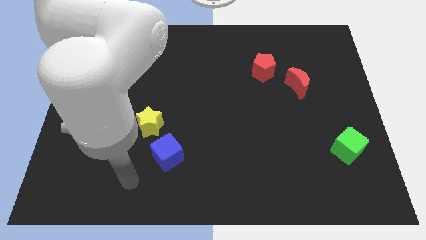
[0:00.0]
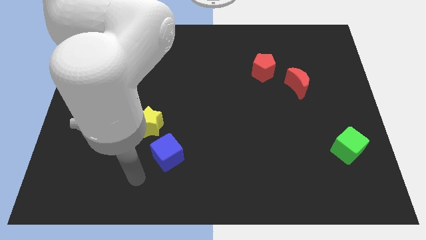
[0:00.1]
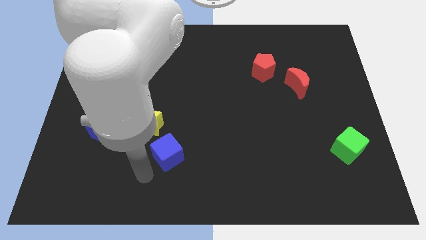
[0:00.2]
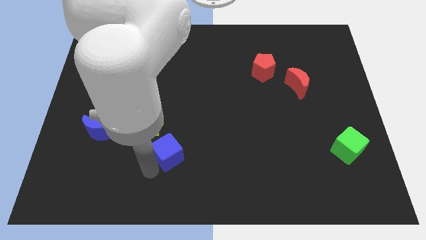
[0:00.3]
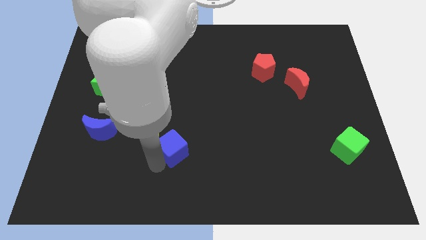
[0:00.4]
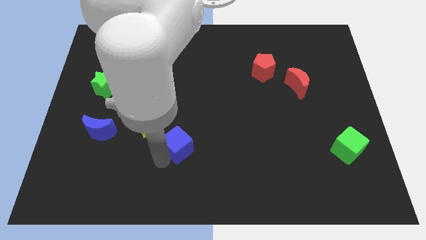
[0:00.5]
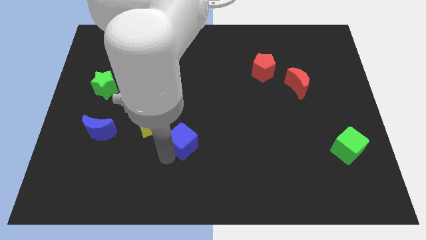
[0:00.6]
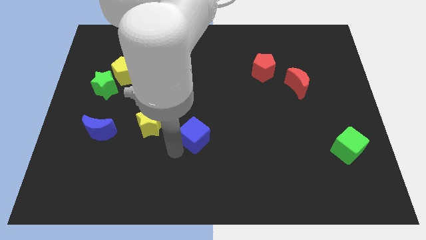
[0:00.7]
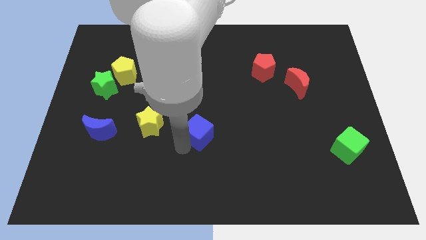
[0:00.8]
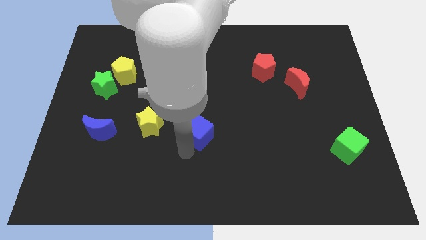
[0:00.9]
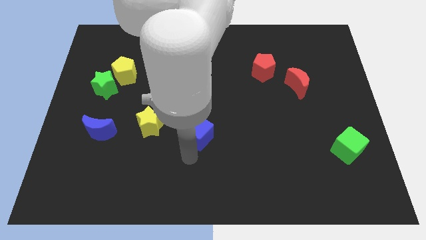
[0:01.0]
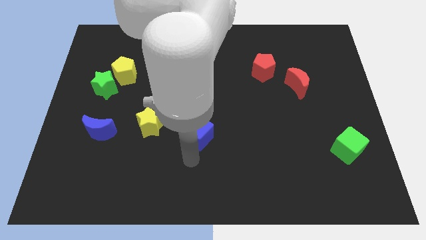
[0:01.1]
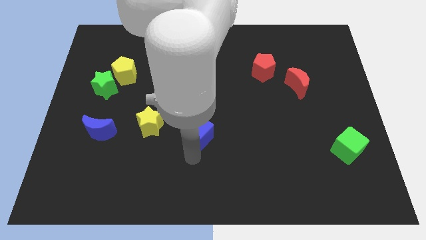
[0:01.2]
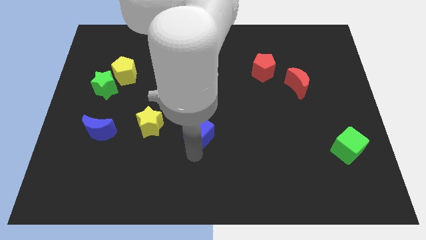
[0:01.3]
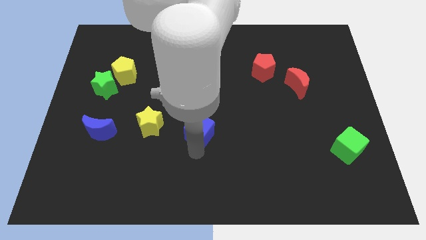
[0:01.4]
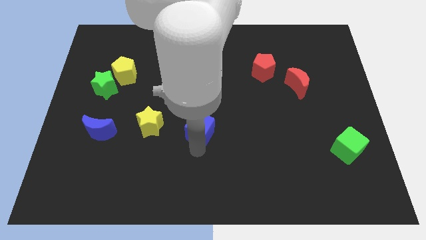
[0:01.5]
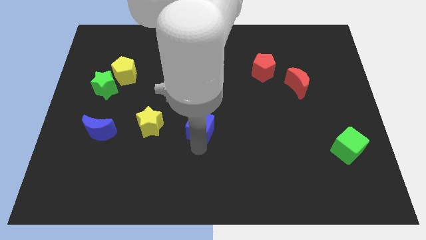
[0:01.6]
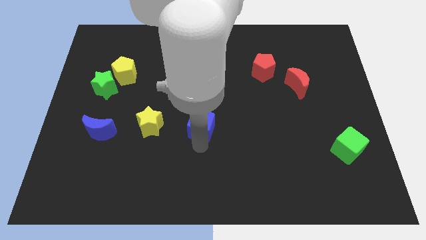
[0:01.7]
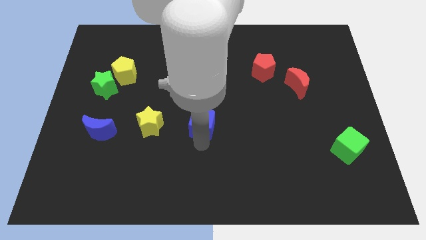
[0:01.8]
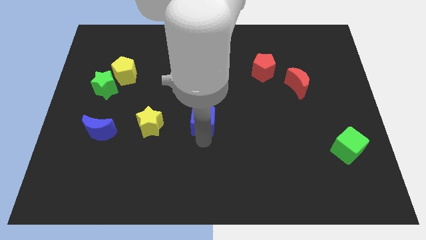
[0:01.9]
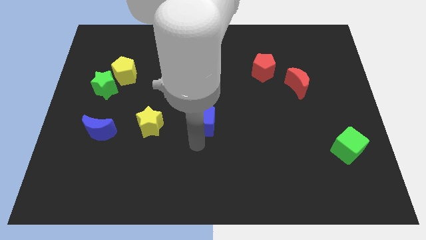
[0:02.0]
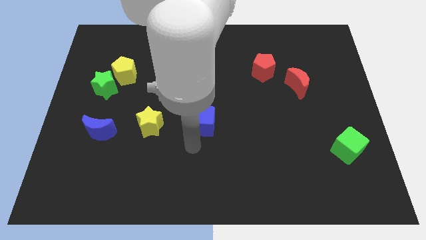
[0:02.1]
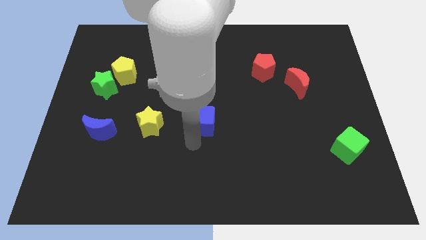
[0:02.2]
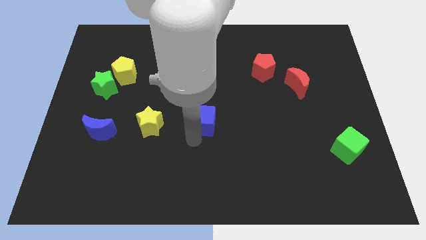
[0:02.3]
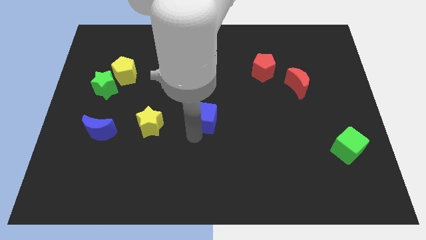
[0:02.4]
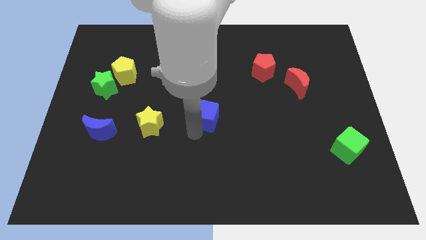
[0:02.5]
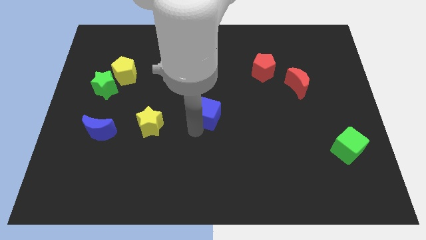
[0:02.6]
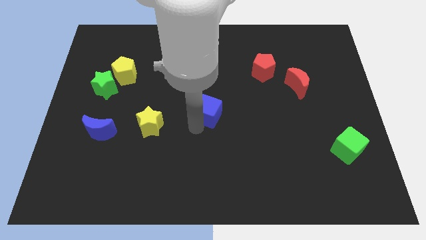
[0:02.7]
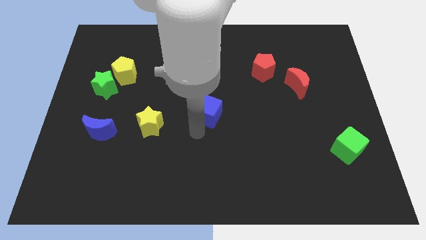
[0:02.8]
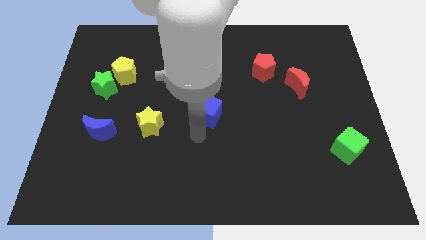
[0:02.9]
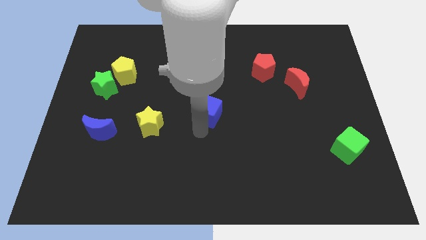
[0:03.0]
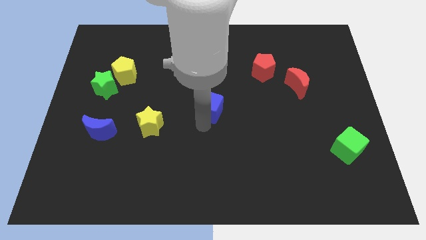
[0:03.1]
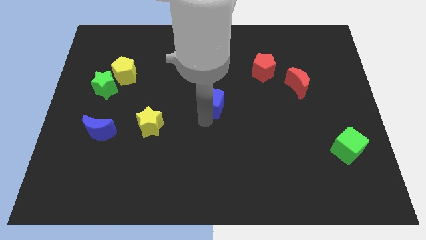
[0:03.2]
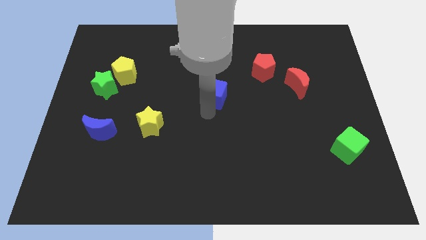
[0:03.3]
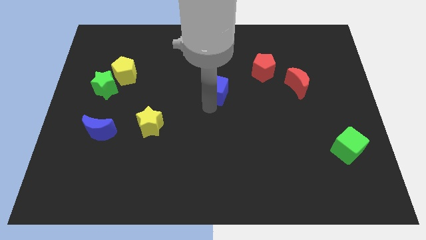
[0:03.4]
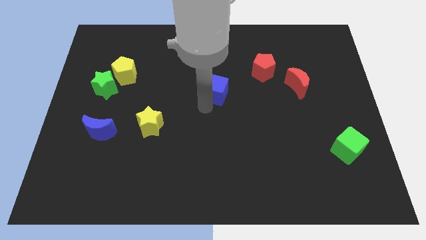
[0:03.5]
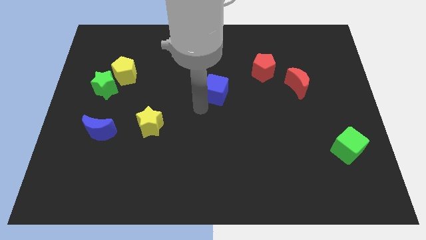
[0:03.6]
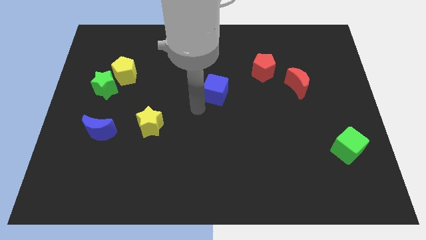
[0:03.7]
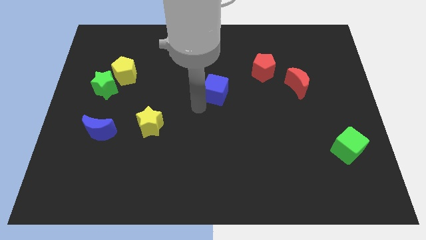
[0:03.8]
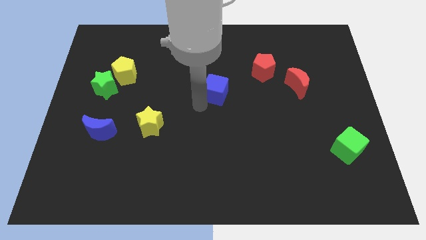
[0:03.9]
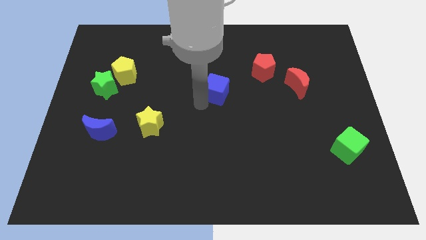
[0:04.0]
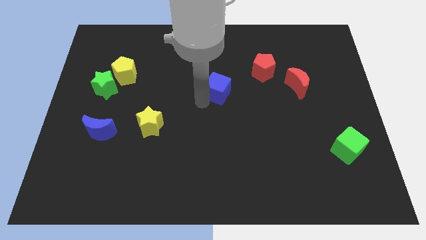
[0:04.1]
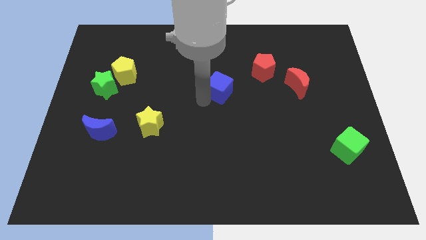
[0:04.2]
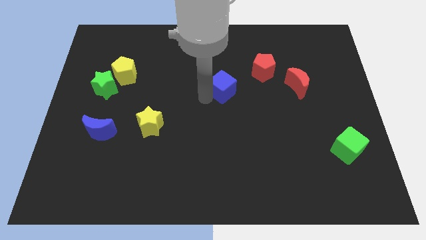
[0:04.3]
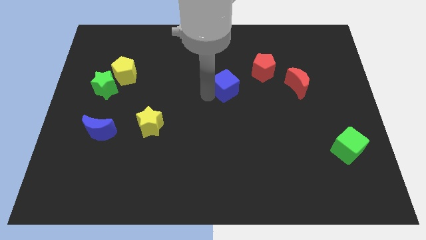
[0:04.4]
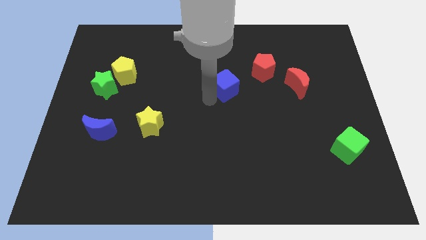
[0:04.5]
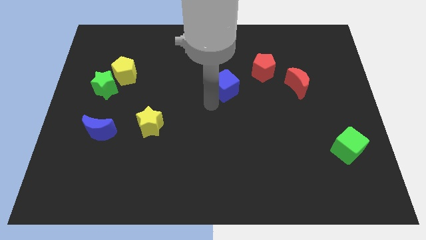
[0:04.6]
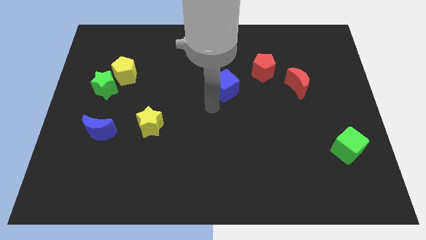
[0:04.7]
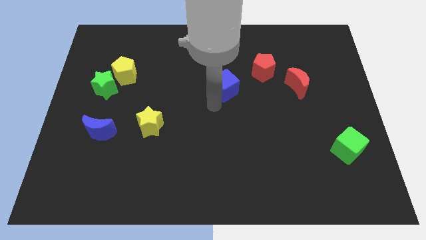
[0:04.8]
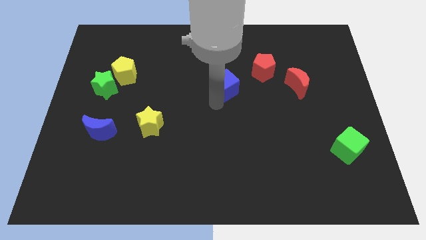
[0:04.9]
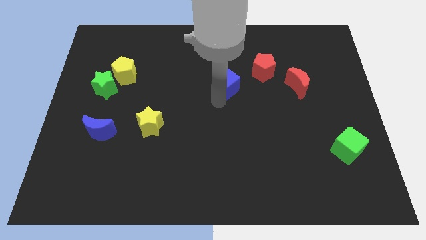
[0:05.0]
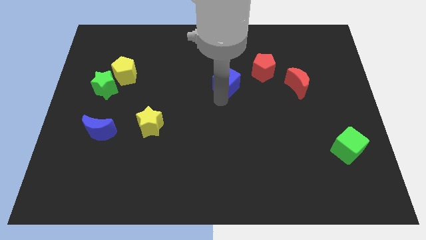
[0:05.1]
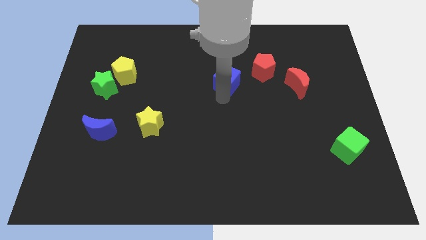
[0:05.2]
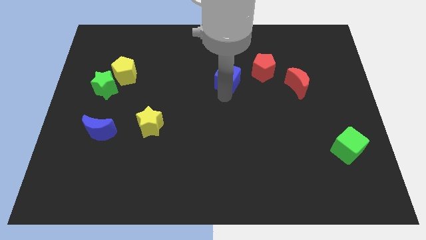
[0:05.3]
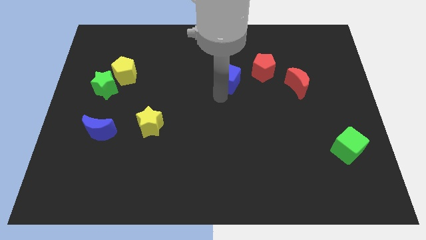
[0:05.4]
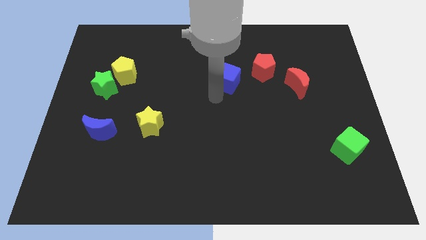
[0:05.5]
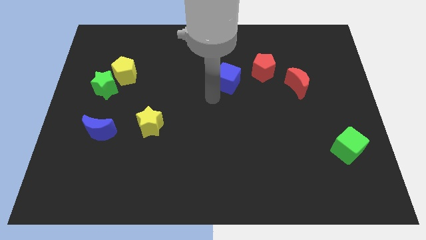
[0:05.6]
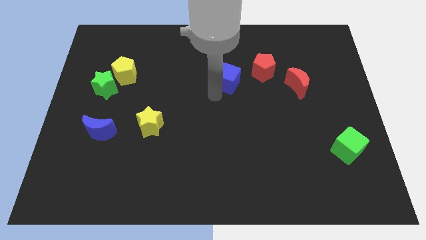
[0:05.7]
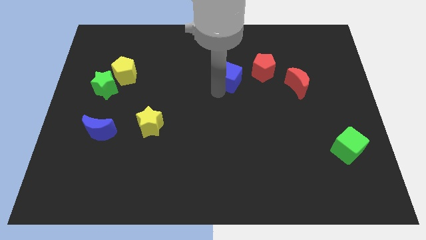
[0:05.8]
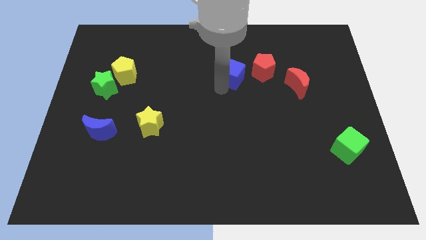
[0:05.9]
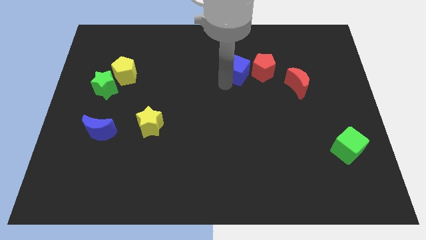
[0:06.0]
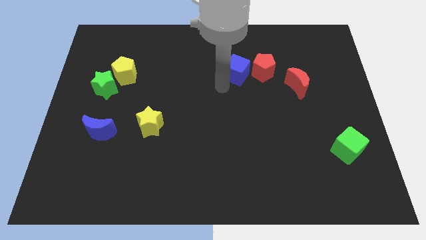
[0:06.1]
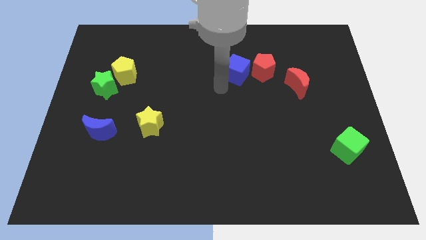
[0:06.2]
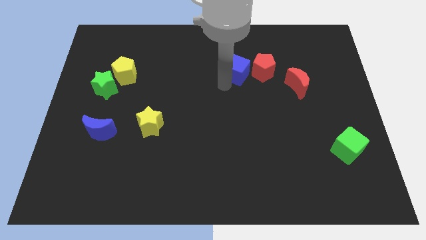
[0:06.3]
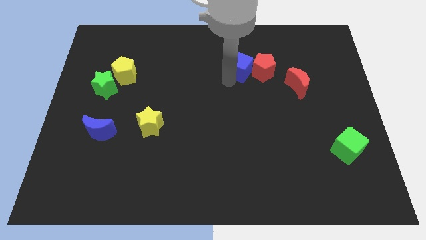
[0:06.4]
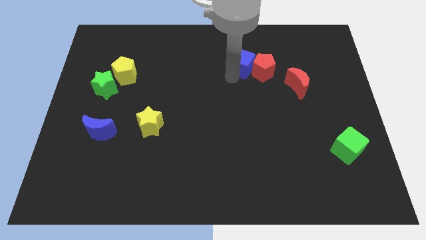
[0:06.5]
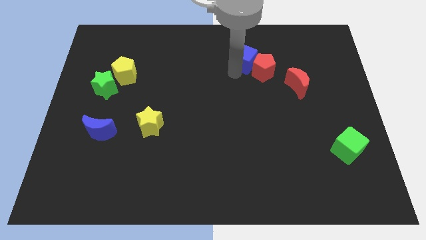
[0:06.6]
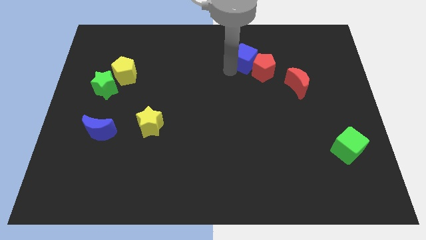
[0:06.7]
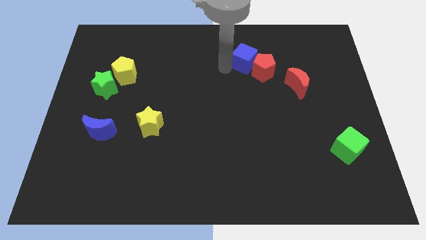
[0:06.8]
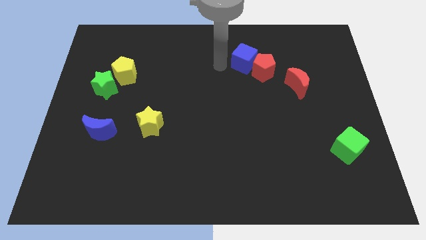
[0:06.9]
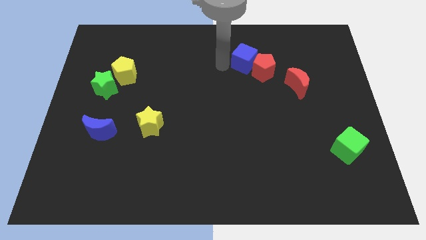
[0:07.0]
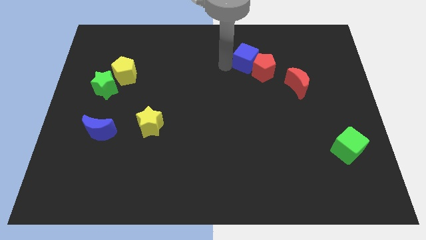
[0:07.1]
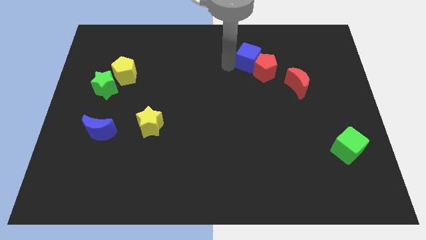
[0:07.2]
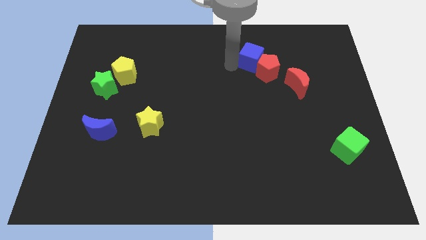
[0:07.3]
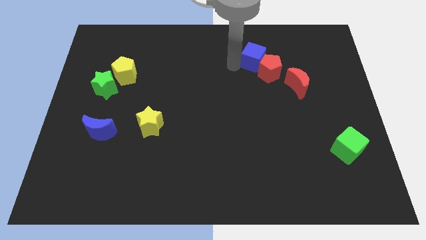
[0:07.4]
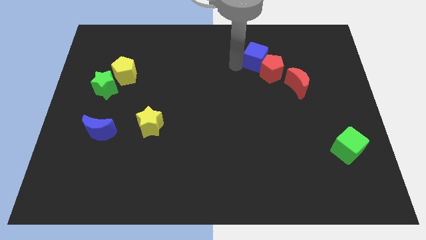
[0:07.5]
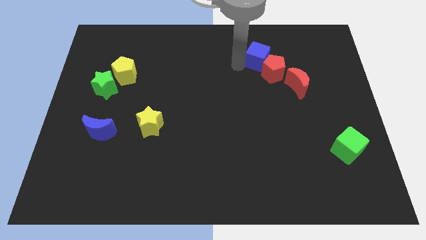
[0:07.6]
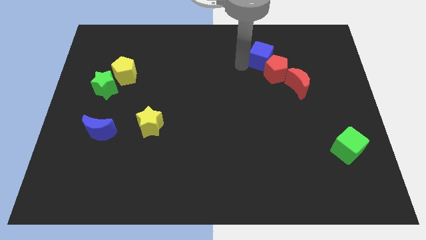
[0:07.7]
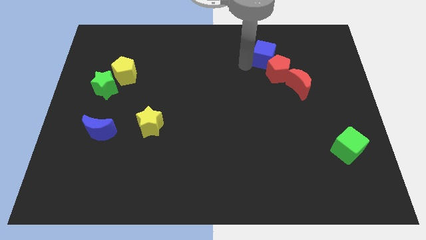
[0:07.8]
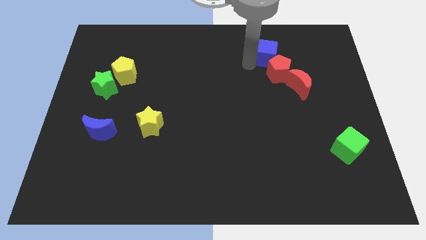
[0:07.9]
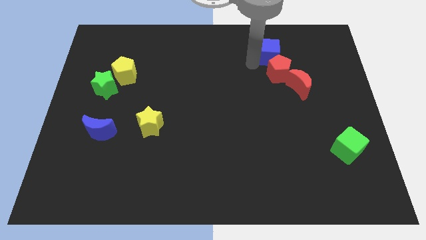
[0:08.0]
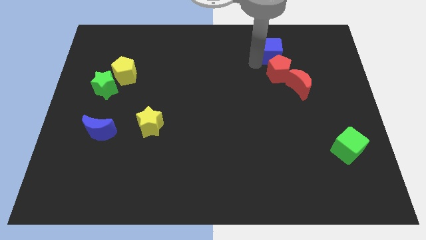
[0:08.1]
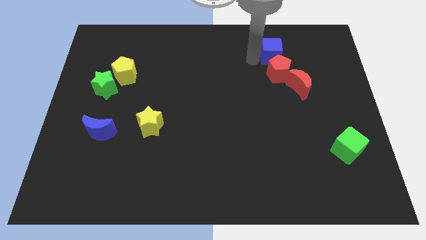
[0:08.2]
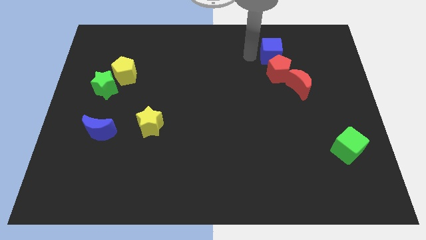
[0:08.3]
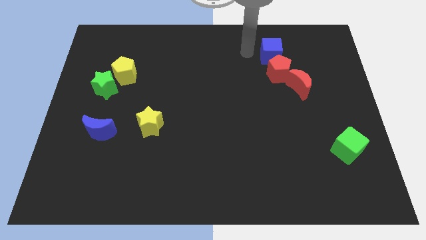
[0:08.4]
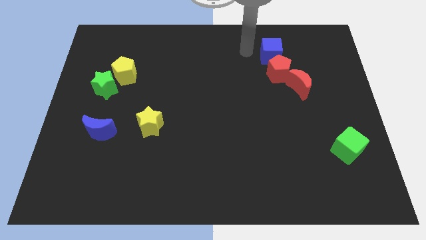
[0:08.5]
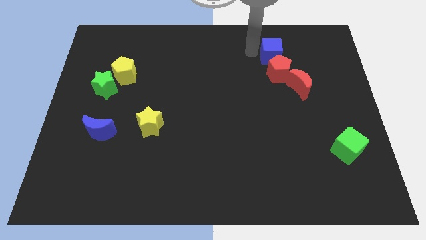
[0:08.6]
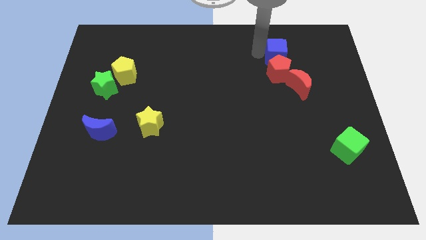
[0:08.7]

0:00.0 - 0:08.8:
slide the blue cube to the top right of the red pentagon
